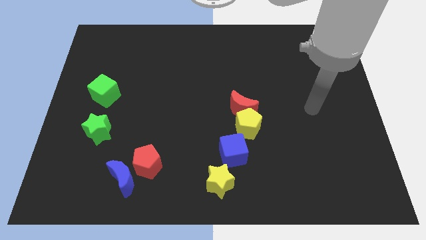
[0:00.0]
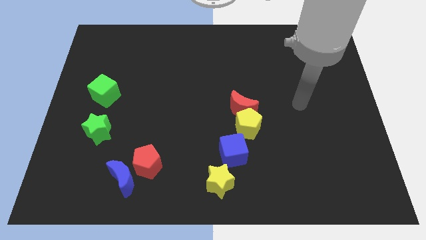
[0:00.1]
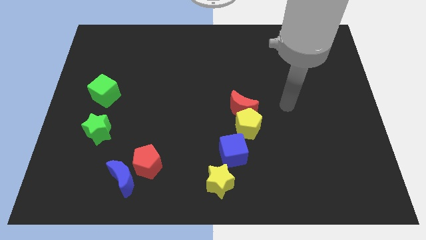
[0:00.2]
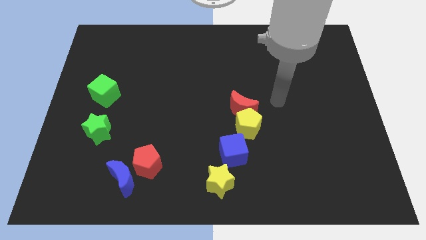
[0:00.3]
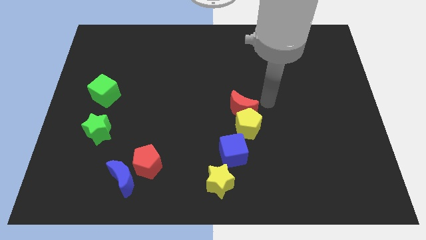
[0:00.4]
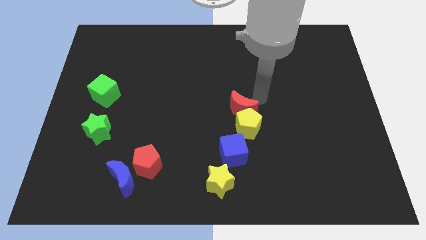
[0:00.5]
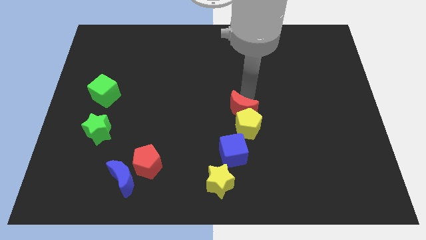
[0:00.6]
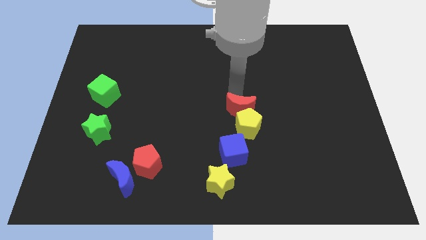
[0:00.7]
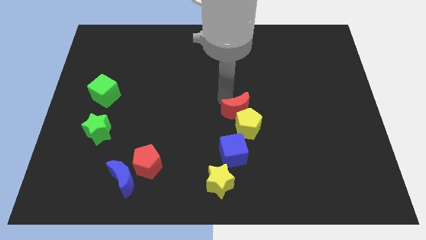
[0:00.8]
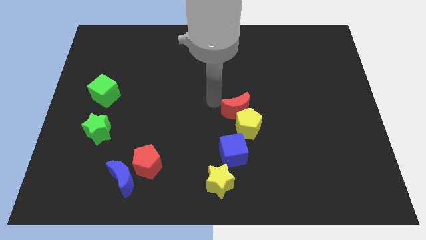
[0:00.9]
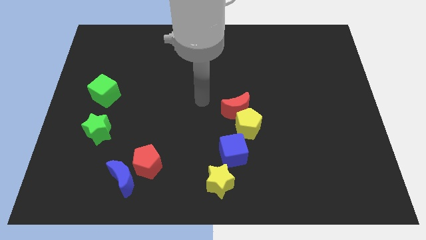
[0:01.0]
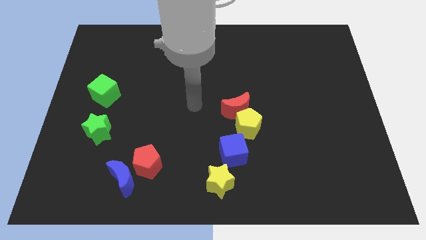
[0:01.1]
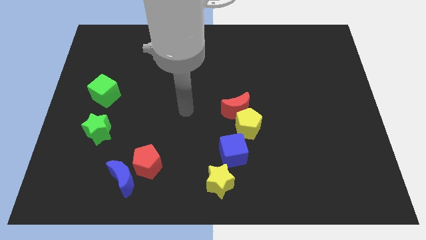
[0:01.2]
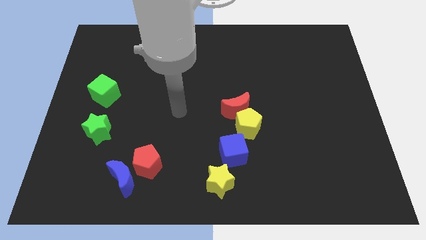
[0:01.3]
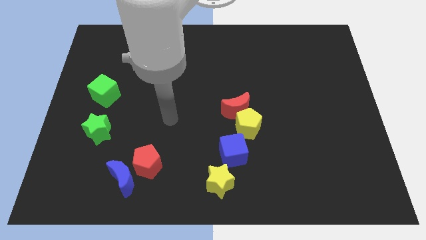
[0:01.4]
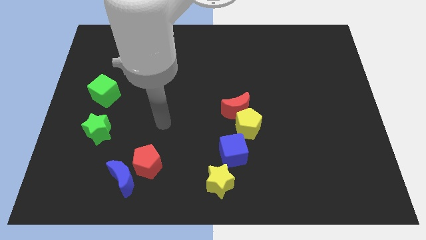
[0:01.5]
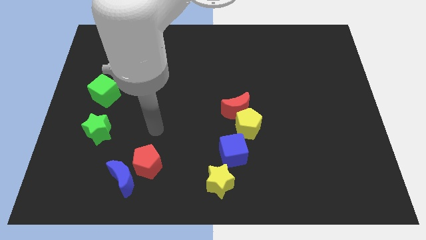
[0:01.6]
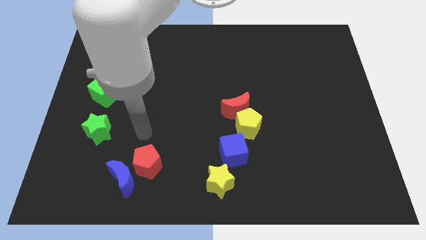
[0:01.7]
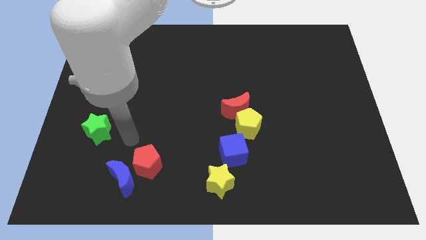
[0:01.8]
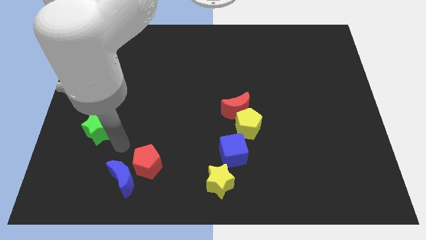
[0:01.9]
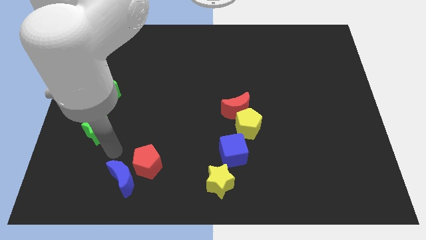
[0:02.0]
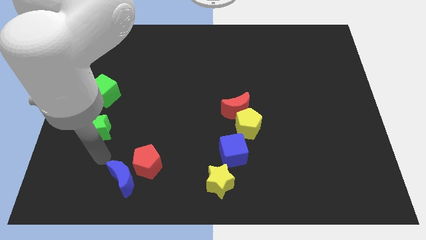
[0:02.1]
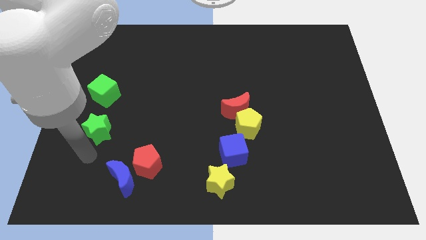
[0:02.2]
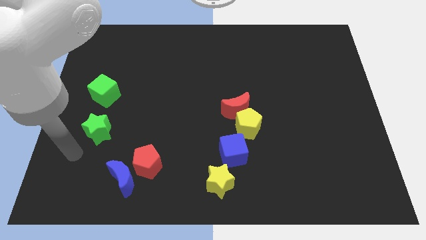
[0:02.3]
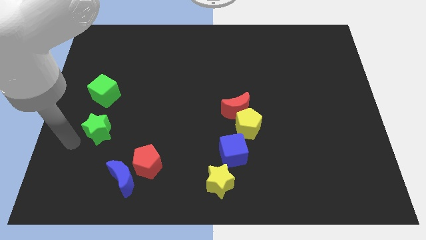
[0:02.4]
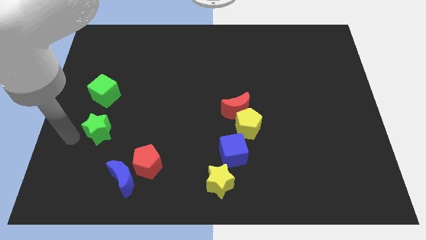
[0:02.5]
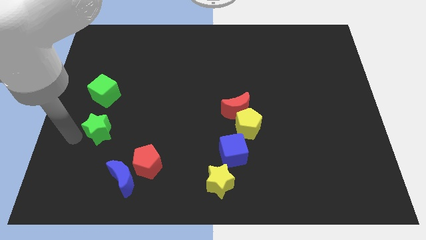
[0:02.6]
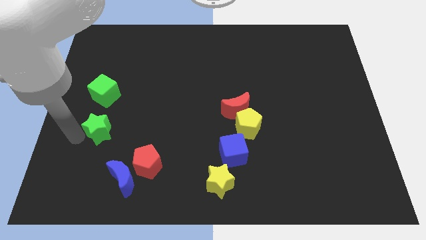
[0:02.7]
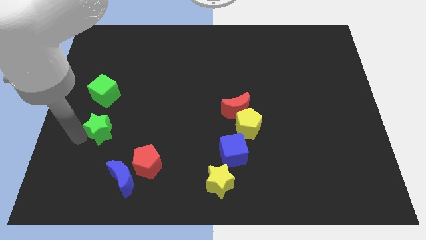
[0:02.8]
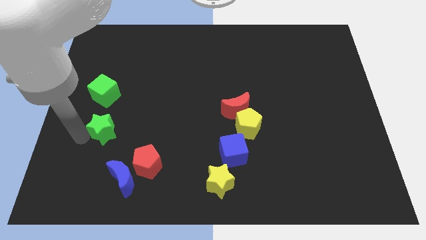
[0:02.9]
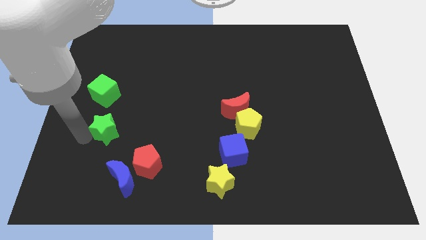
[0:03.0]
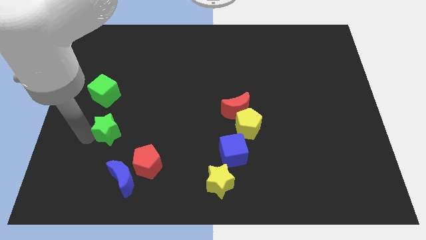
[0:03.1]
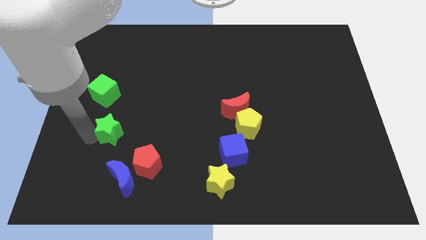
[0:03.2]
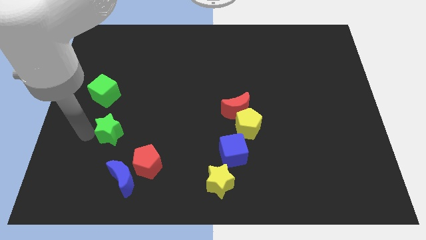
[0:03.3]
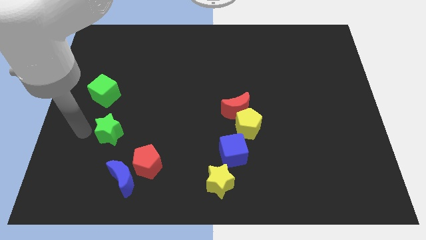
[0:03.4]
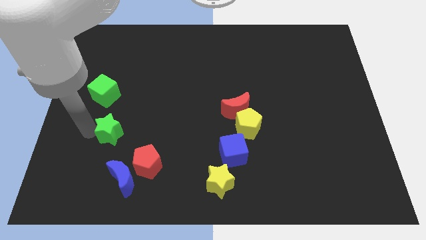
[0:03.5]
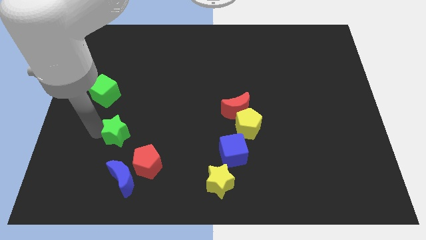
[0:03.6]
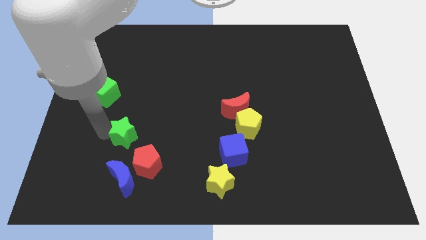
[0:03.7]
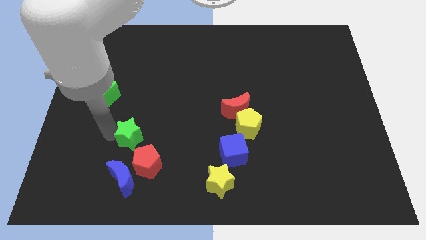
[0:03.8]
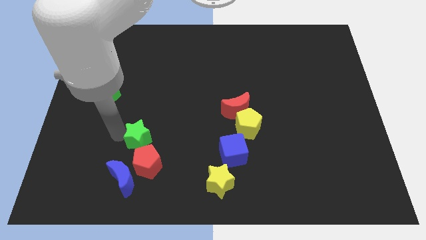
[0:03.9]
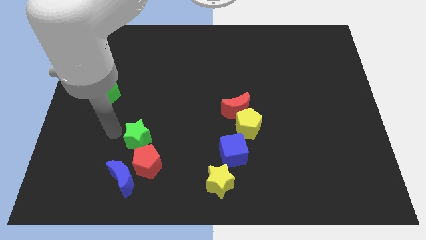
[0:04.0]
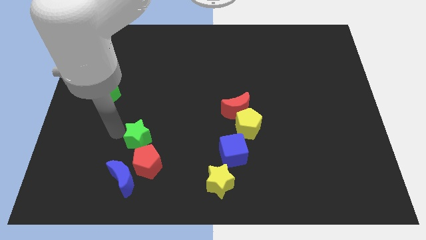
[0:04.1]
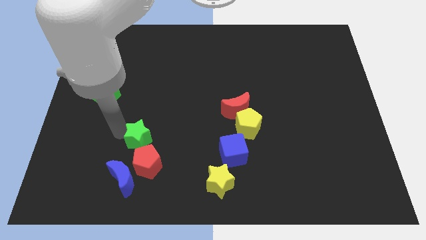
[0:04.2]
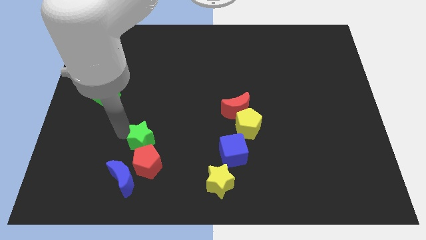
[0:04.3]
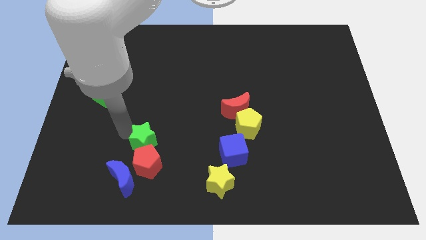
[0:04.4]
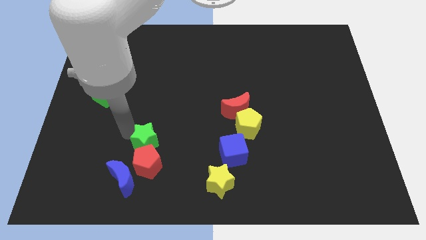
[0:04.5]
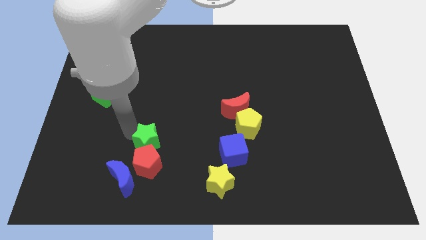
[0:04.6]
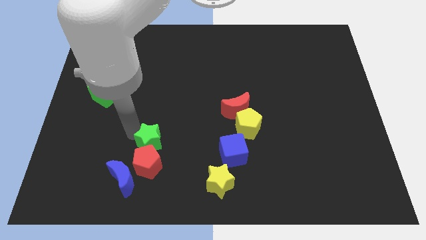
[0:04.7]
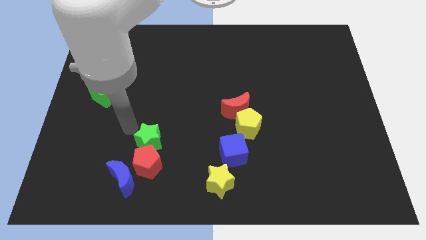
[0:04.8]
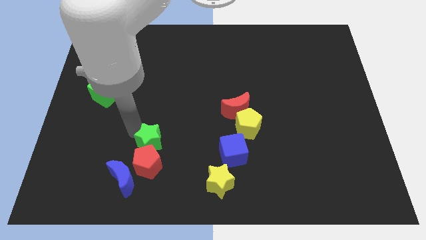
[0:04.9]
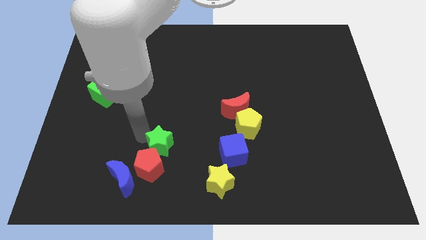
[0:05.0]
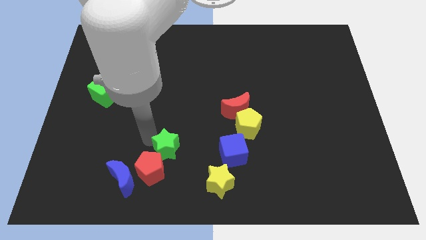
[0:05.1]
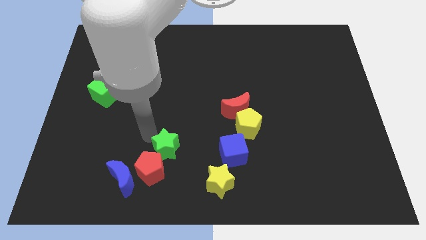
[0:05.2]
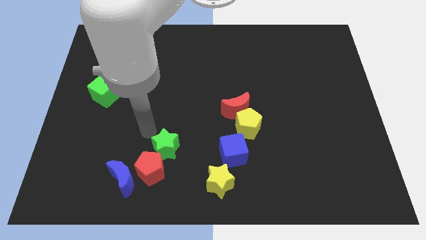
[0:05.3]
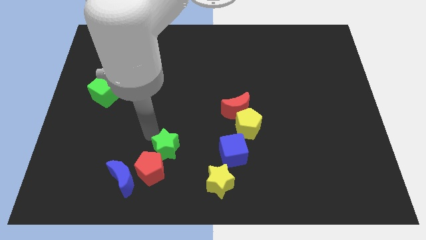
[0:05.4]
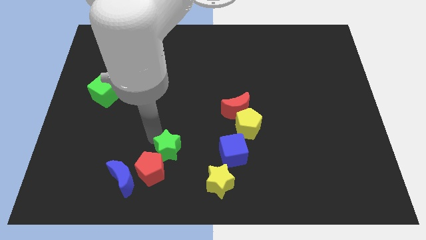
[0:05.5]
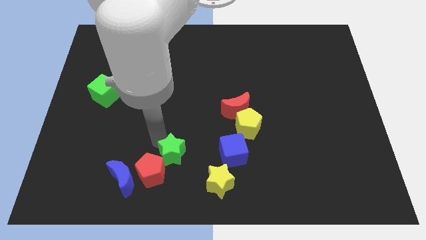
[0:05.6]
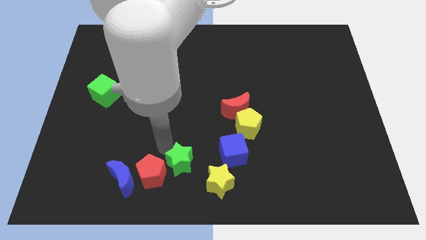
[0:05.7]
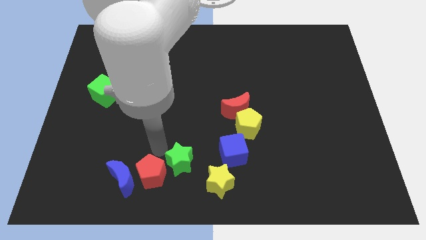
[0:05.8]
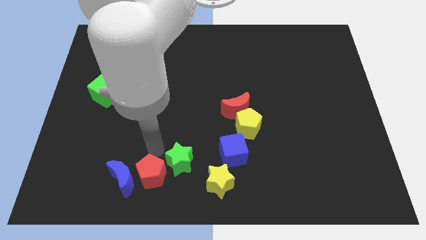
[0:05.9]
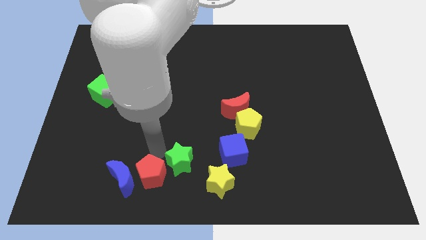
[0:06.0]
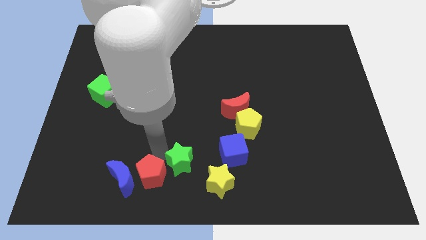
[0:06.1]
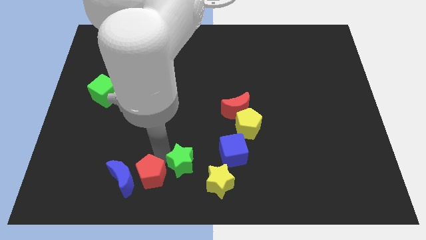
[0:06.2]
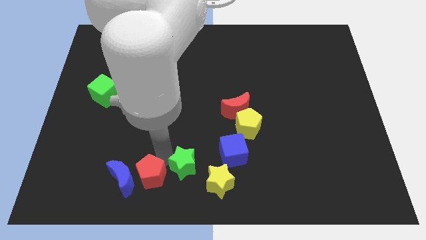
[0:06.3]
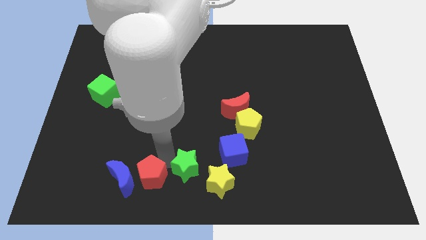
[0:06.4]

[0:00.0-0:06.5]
put the green star diagonally down and to the left of the blue cube

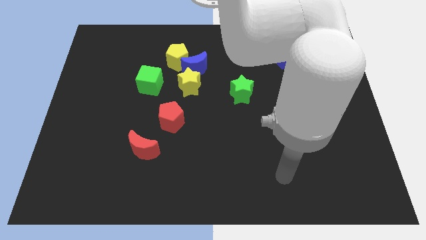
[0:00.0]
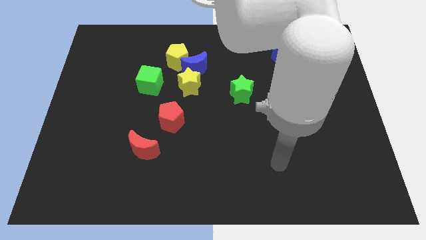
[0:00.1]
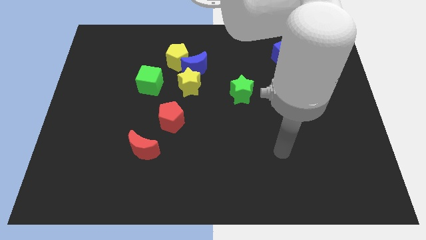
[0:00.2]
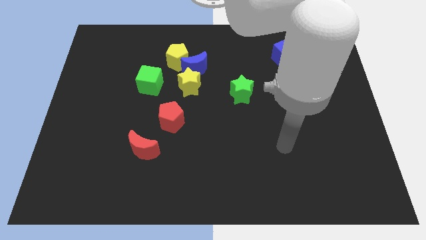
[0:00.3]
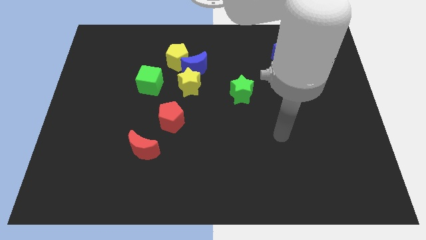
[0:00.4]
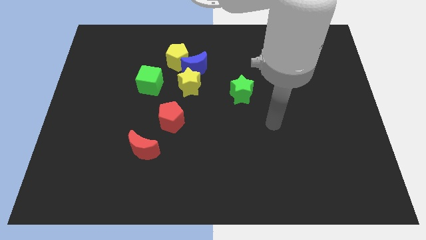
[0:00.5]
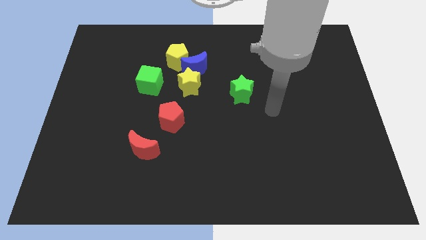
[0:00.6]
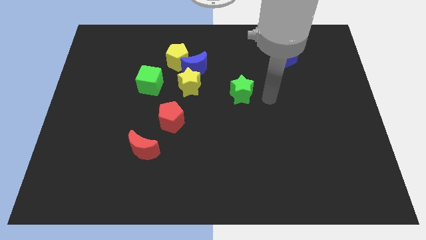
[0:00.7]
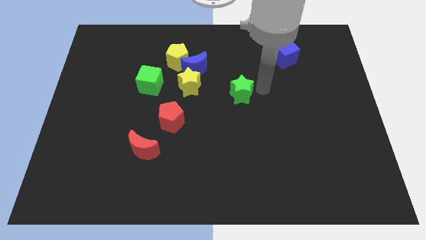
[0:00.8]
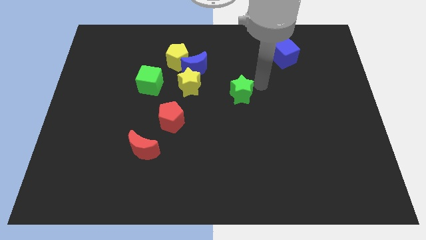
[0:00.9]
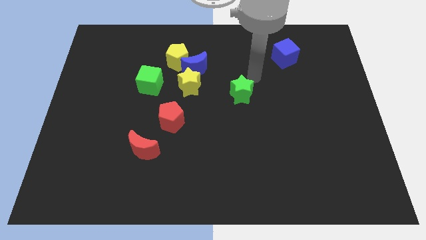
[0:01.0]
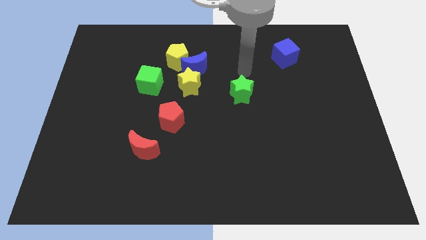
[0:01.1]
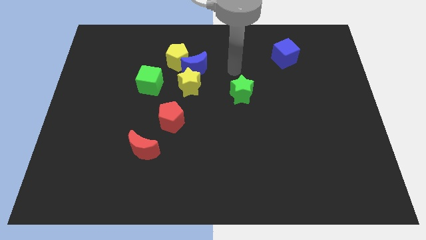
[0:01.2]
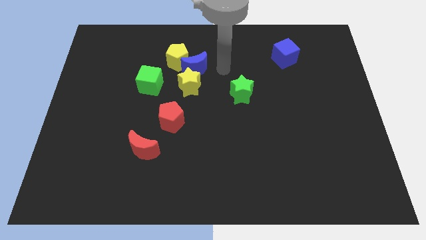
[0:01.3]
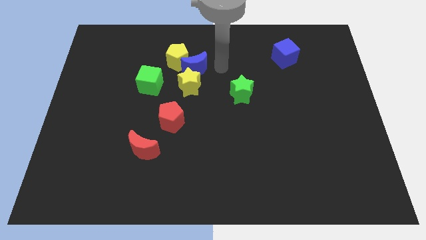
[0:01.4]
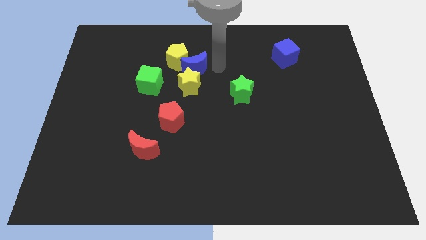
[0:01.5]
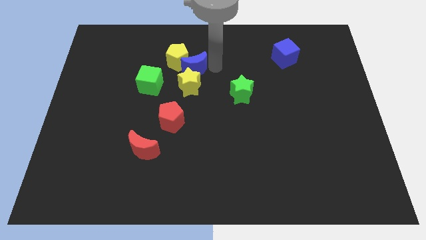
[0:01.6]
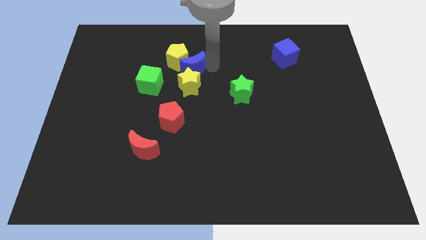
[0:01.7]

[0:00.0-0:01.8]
move the blue moon to the top left of the yellow star
